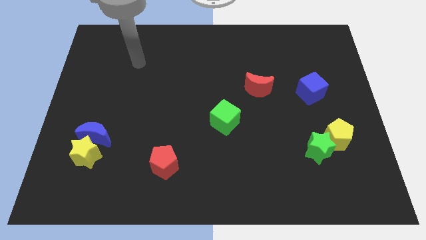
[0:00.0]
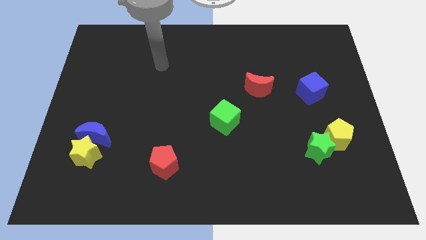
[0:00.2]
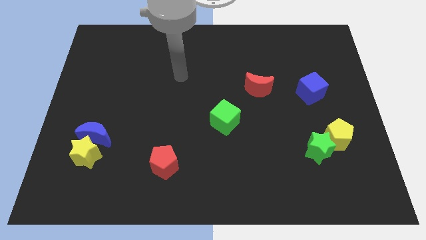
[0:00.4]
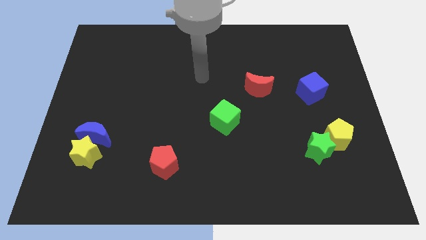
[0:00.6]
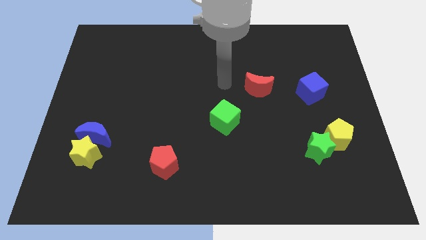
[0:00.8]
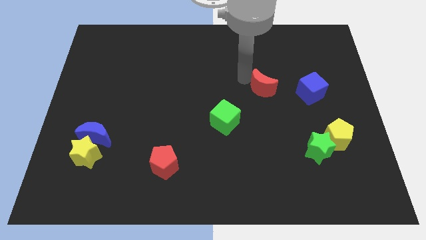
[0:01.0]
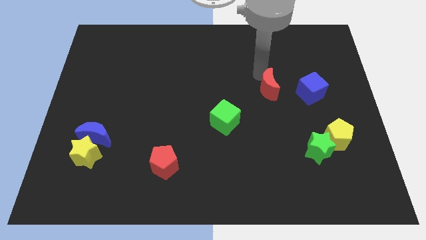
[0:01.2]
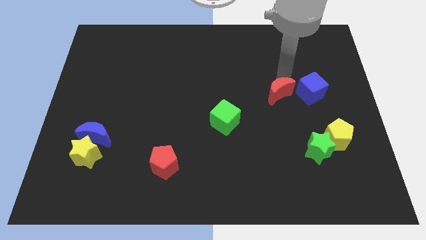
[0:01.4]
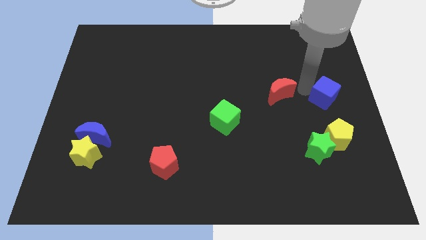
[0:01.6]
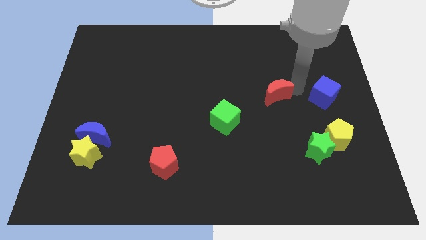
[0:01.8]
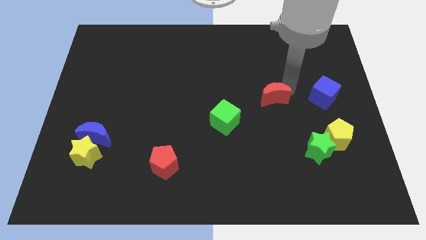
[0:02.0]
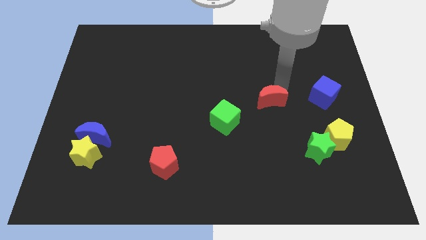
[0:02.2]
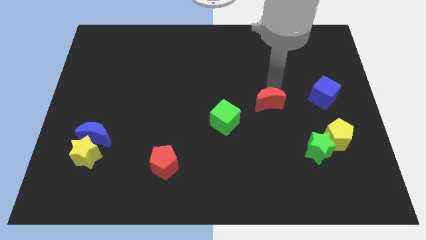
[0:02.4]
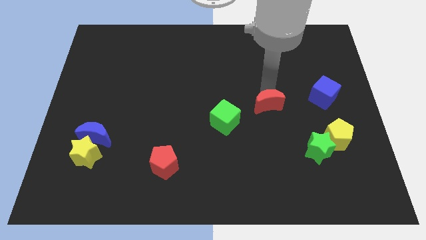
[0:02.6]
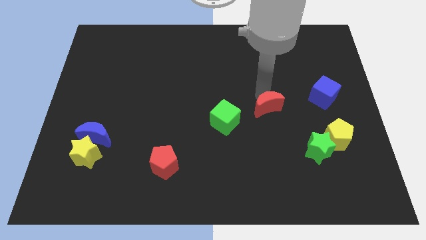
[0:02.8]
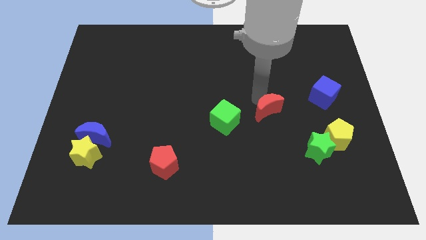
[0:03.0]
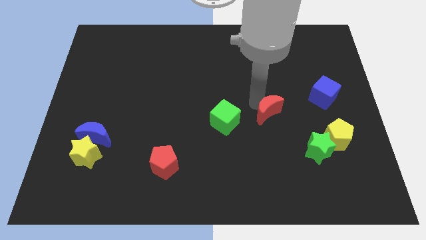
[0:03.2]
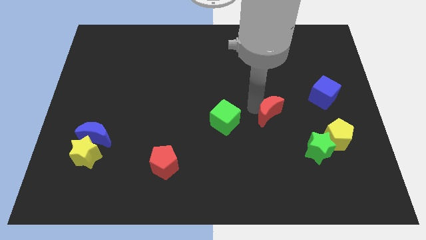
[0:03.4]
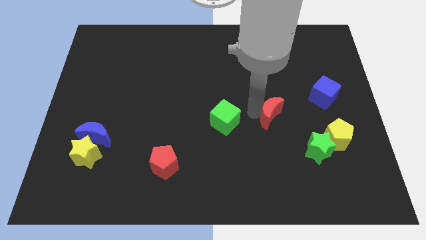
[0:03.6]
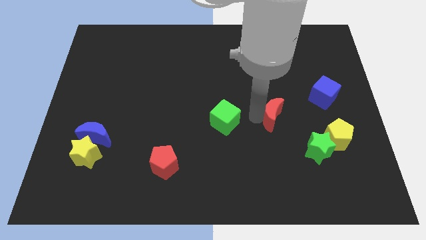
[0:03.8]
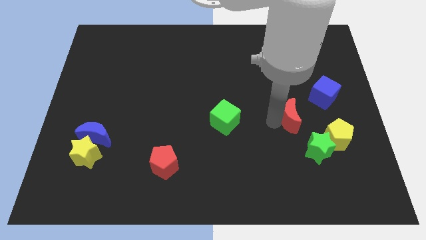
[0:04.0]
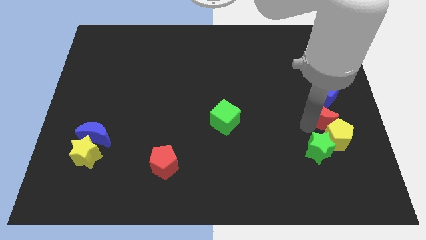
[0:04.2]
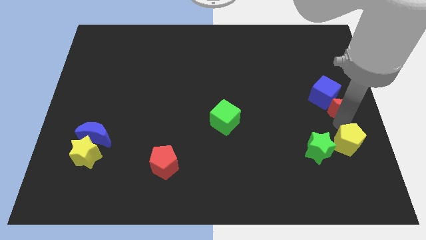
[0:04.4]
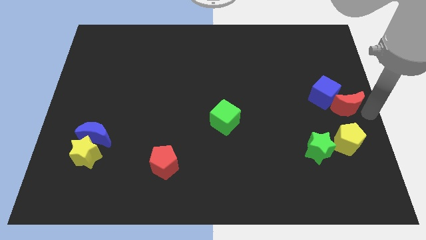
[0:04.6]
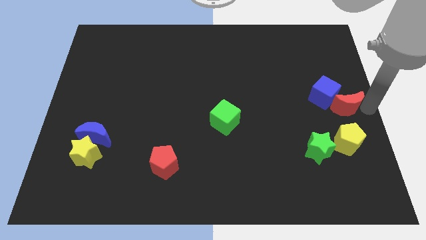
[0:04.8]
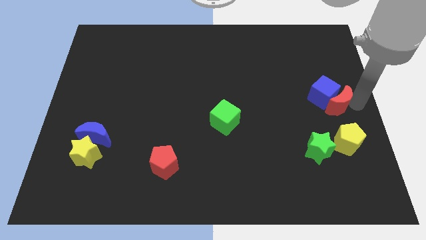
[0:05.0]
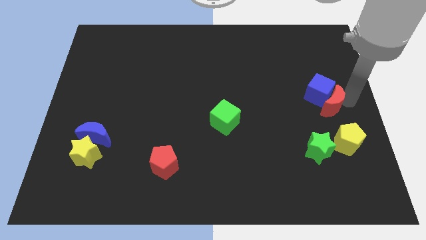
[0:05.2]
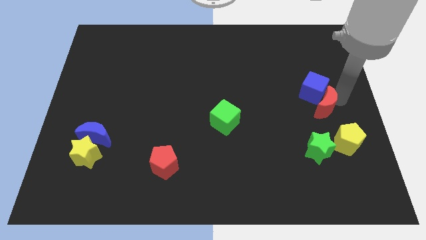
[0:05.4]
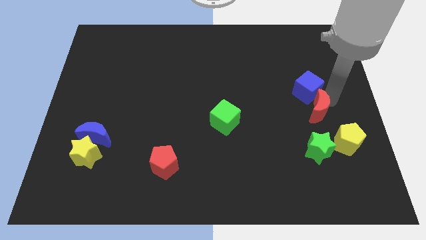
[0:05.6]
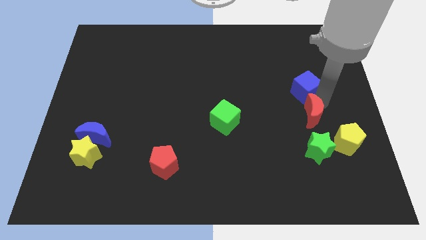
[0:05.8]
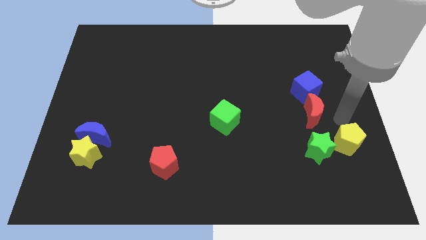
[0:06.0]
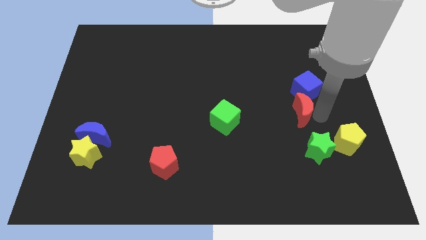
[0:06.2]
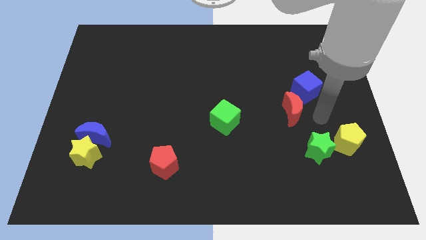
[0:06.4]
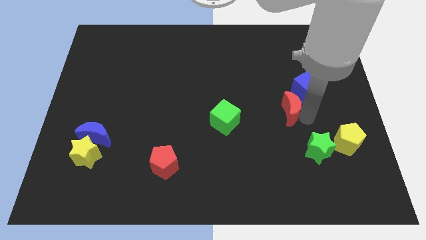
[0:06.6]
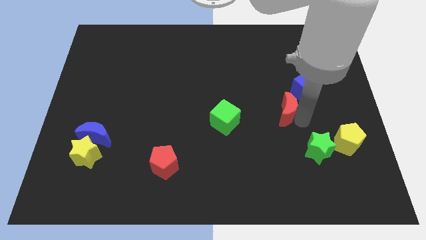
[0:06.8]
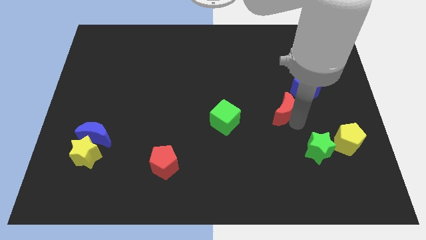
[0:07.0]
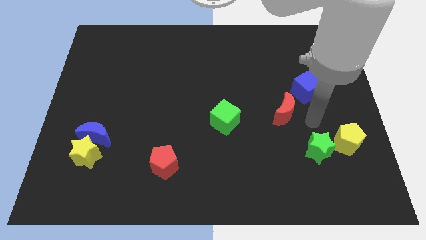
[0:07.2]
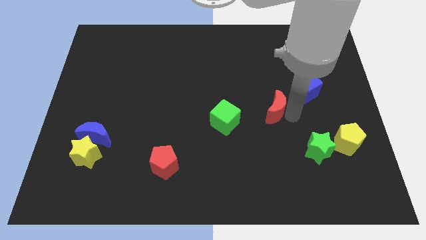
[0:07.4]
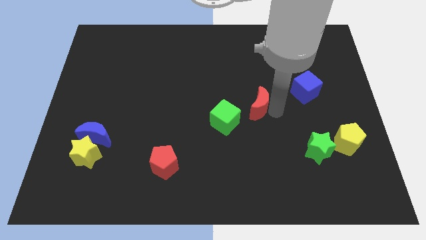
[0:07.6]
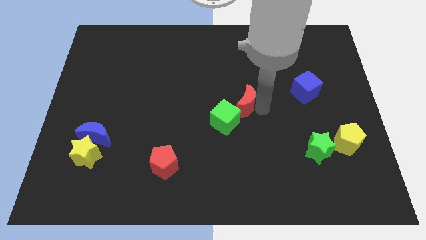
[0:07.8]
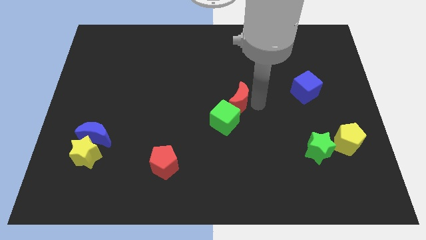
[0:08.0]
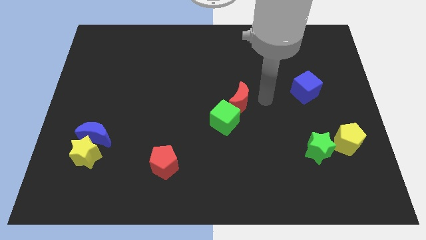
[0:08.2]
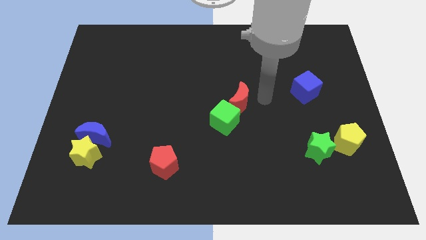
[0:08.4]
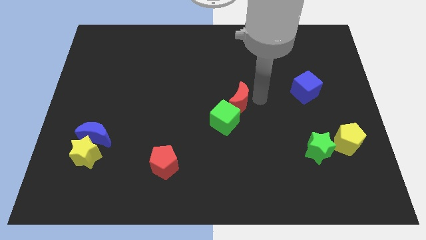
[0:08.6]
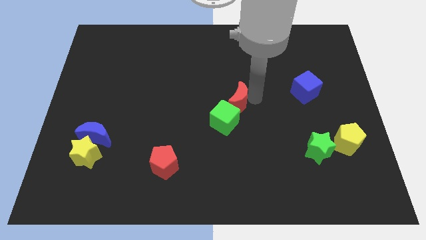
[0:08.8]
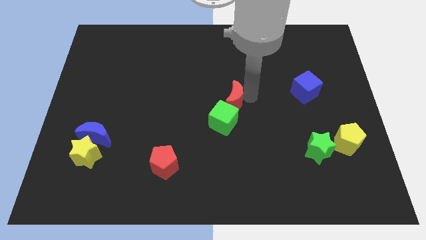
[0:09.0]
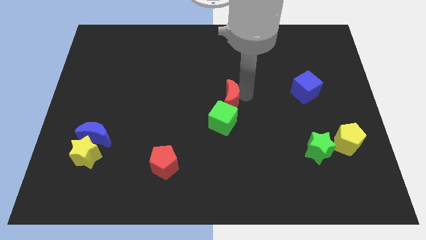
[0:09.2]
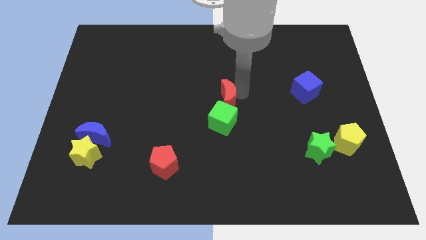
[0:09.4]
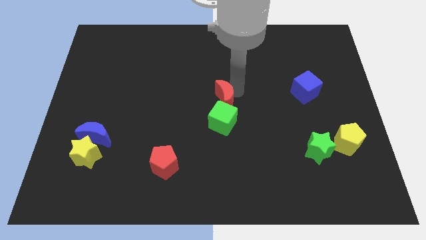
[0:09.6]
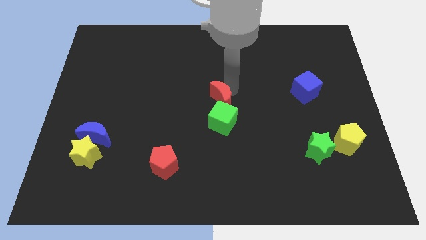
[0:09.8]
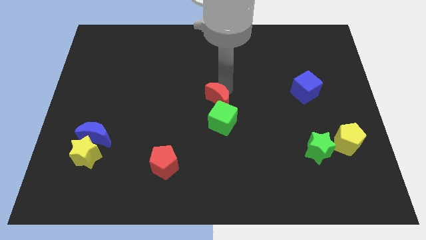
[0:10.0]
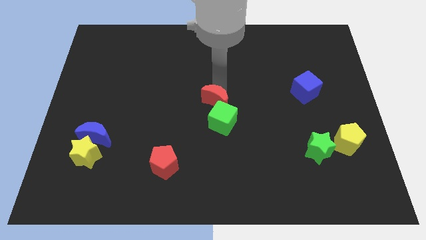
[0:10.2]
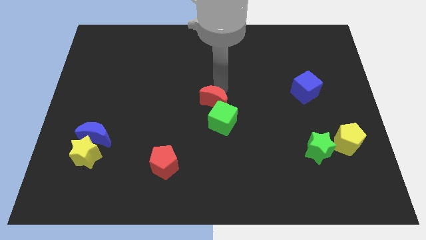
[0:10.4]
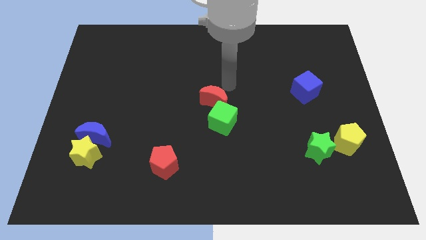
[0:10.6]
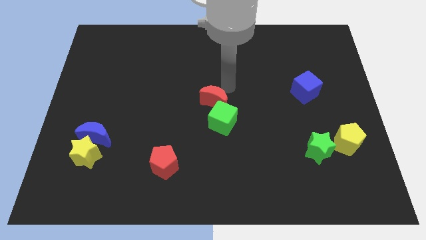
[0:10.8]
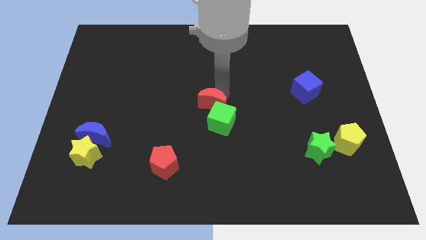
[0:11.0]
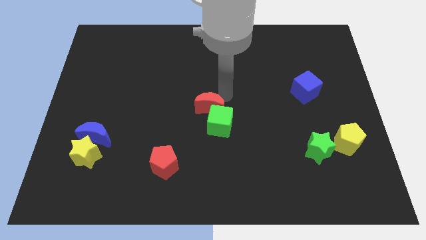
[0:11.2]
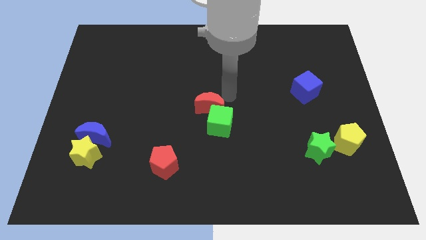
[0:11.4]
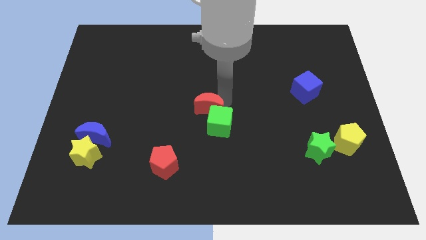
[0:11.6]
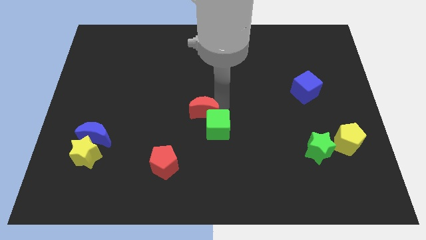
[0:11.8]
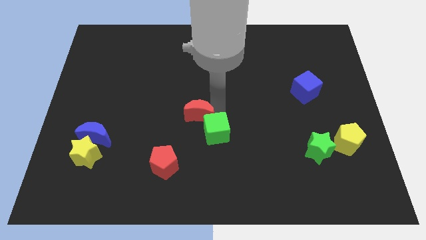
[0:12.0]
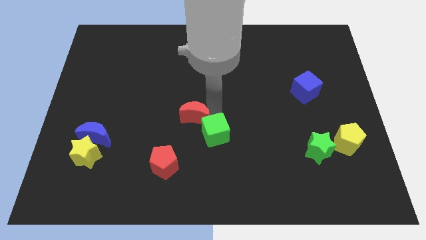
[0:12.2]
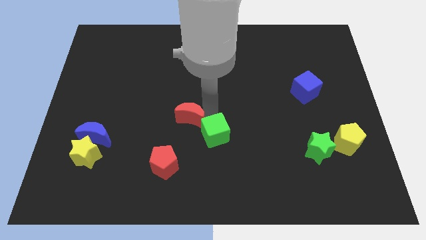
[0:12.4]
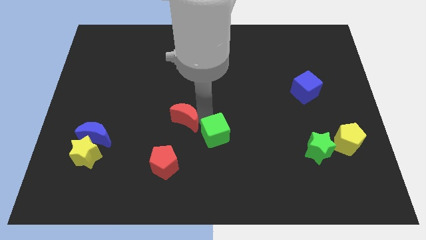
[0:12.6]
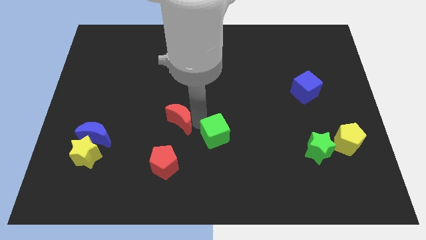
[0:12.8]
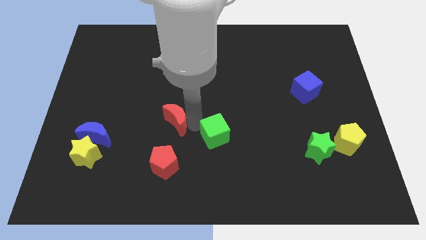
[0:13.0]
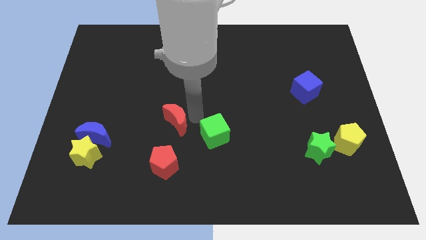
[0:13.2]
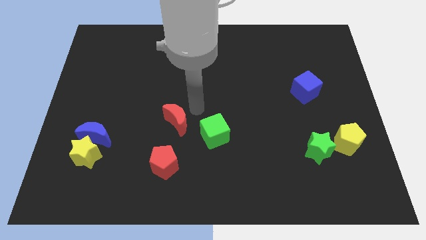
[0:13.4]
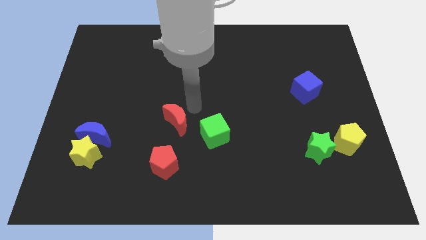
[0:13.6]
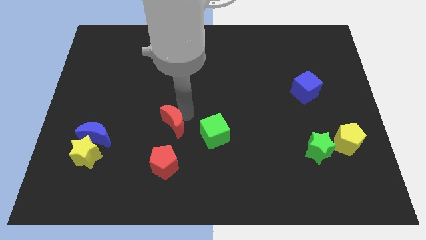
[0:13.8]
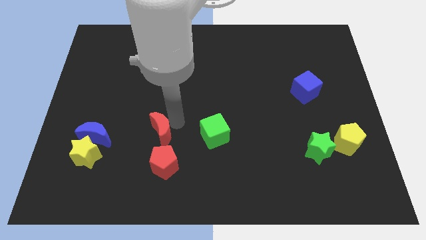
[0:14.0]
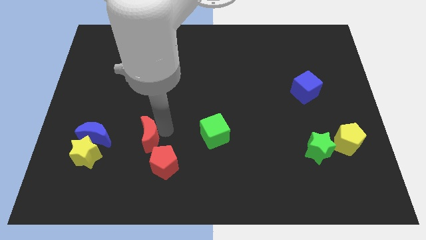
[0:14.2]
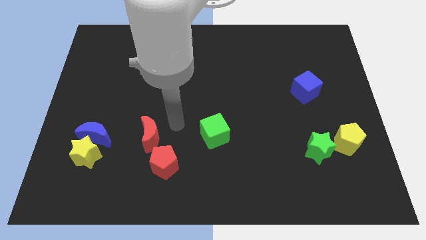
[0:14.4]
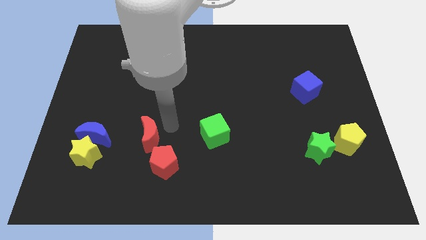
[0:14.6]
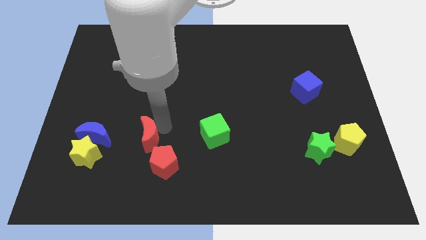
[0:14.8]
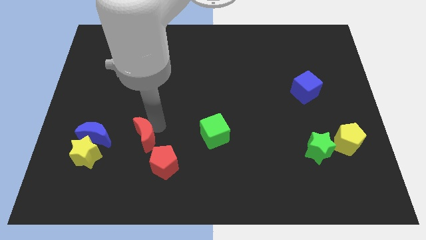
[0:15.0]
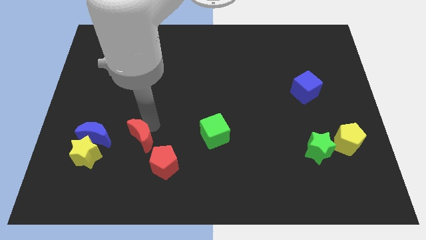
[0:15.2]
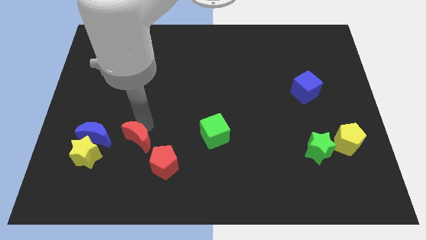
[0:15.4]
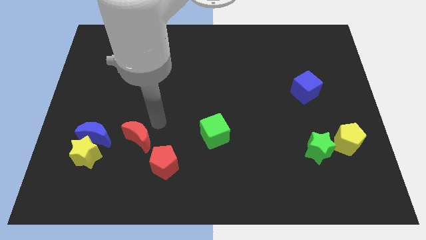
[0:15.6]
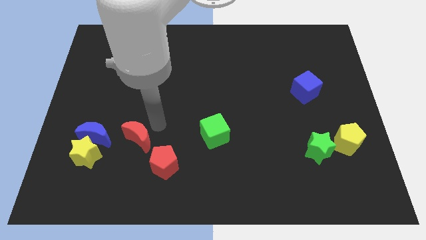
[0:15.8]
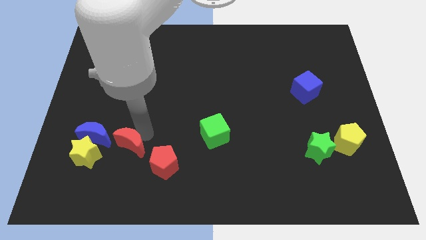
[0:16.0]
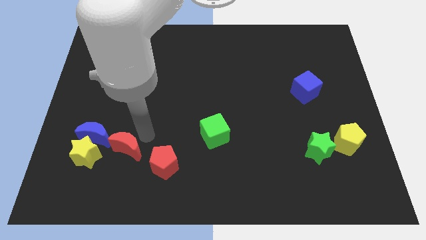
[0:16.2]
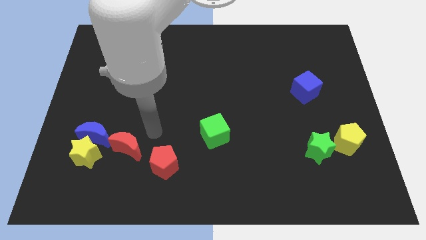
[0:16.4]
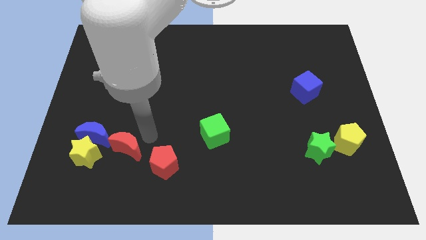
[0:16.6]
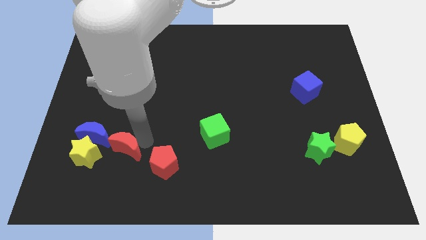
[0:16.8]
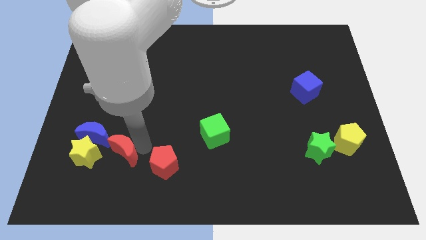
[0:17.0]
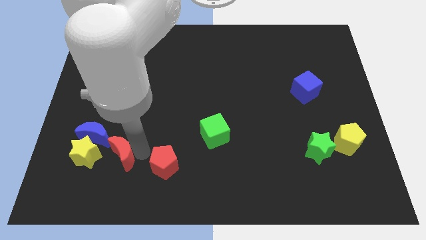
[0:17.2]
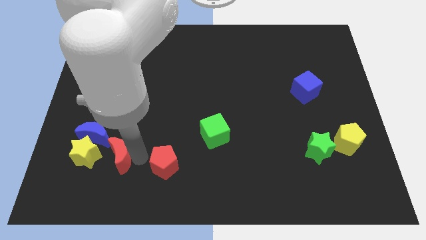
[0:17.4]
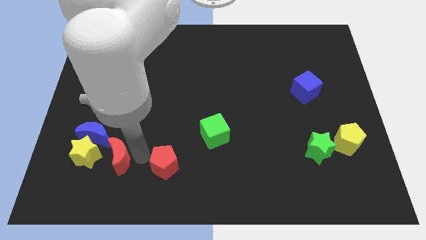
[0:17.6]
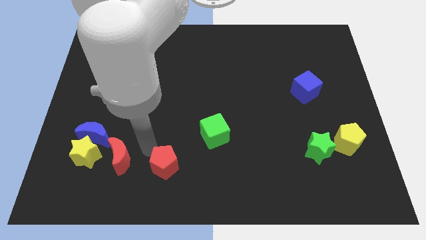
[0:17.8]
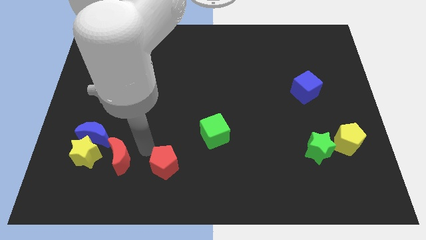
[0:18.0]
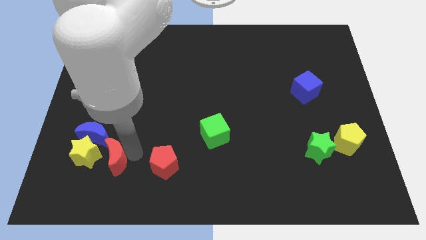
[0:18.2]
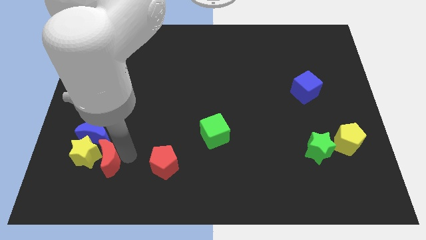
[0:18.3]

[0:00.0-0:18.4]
put the red moon below the blue moon
